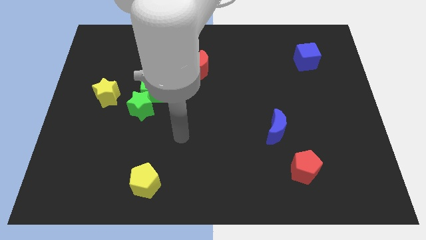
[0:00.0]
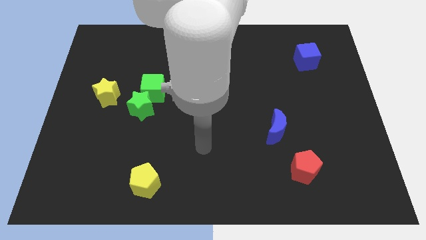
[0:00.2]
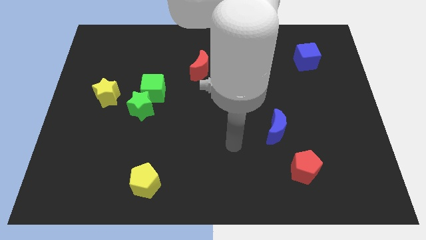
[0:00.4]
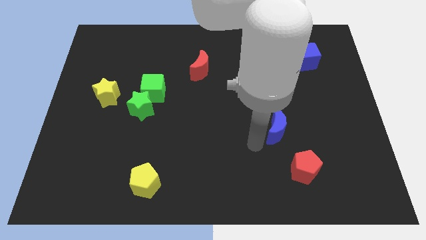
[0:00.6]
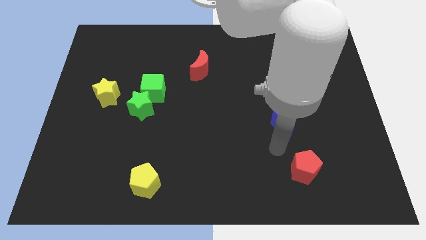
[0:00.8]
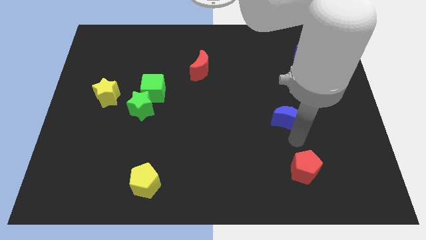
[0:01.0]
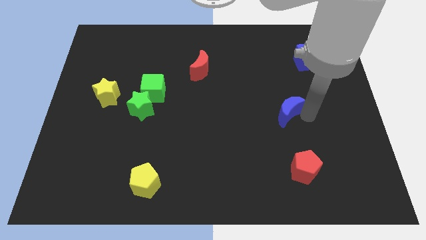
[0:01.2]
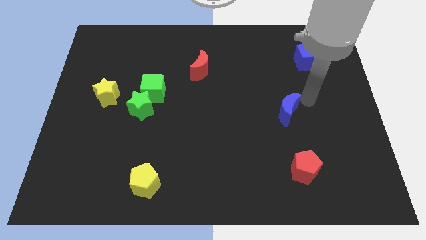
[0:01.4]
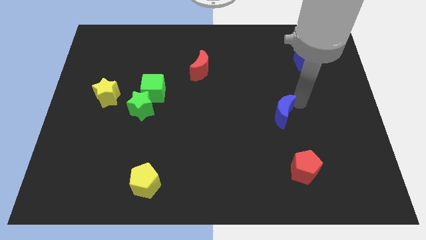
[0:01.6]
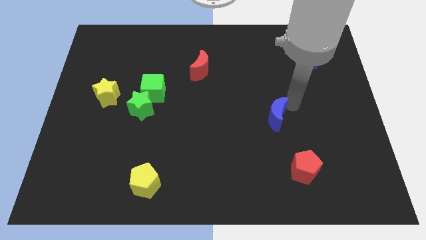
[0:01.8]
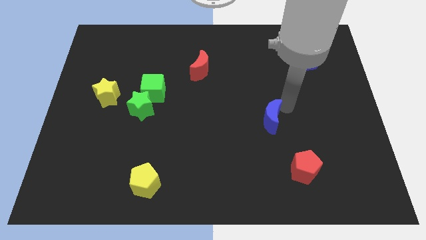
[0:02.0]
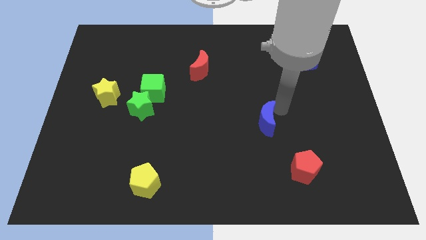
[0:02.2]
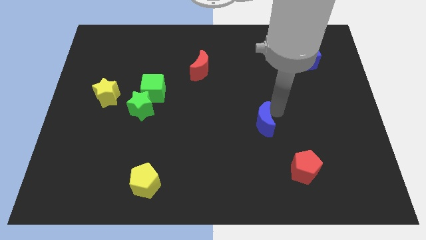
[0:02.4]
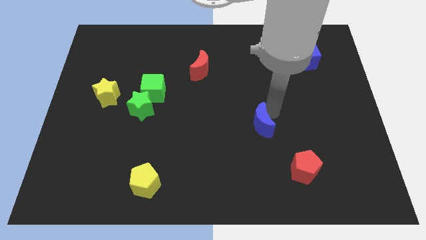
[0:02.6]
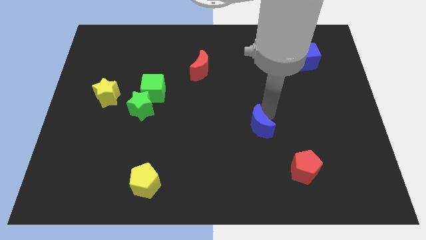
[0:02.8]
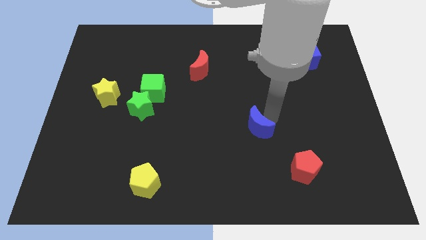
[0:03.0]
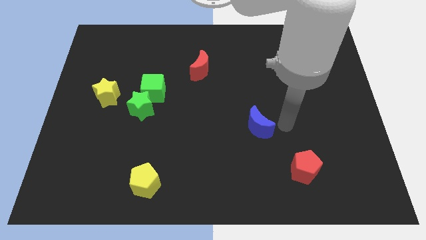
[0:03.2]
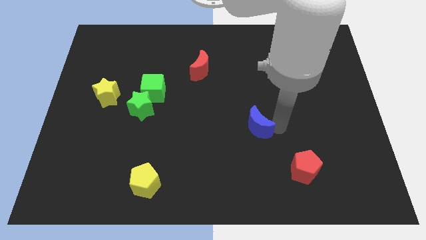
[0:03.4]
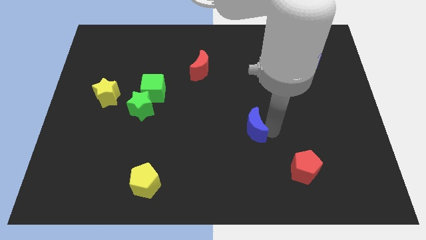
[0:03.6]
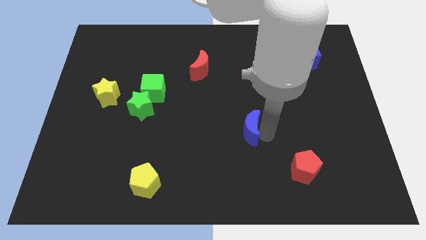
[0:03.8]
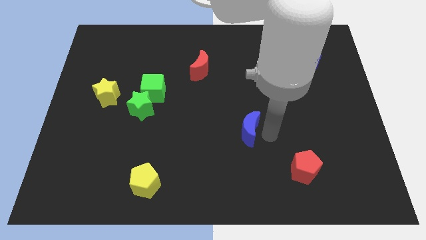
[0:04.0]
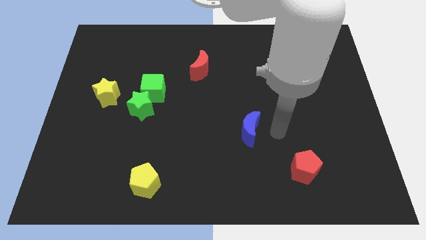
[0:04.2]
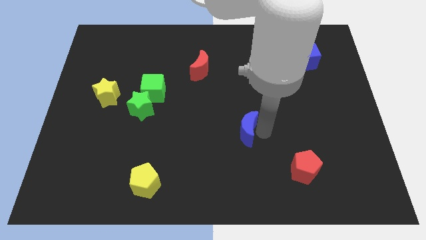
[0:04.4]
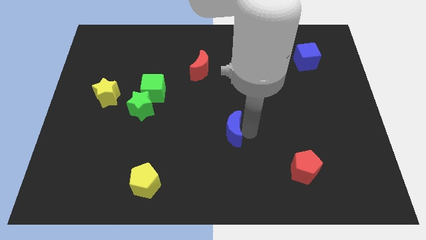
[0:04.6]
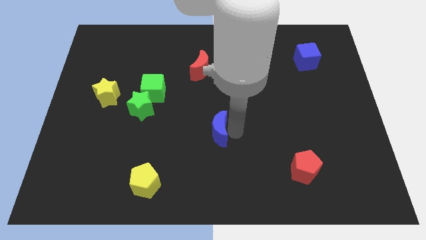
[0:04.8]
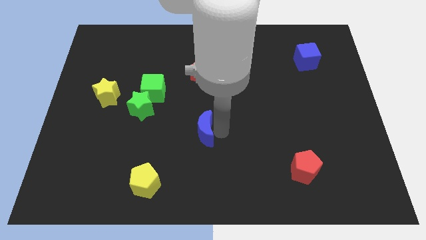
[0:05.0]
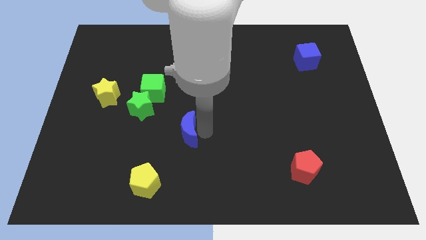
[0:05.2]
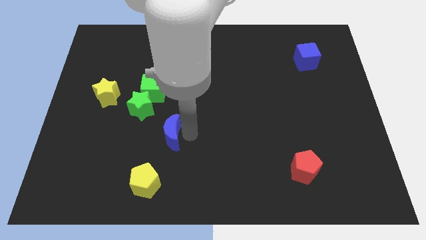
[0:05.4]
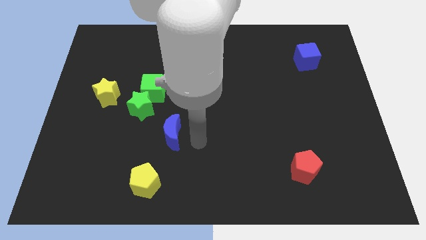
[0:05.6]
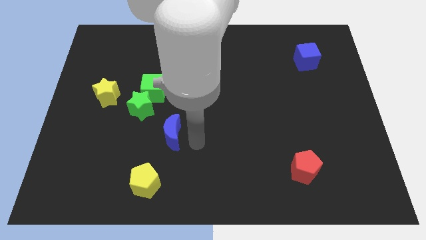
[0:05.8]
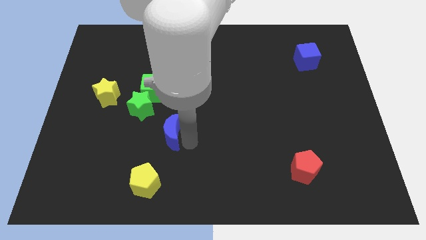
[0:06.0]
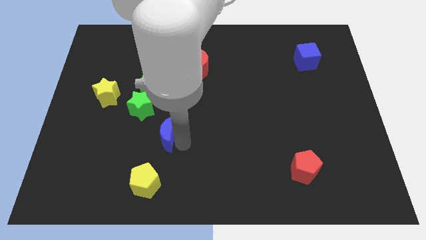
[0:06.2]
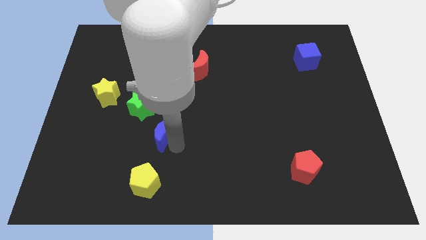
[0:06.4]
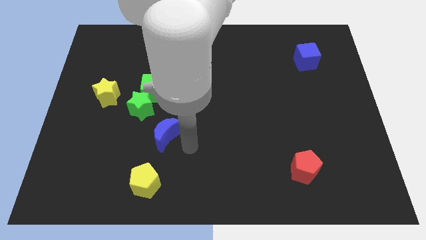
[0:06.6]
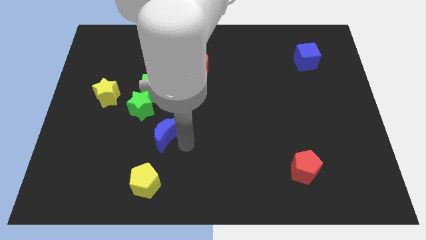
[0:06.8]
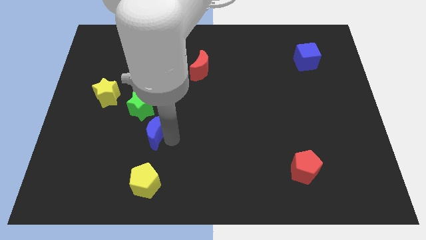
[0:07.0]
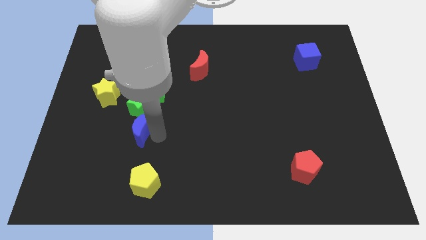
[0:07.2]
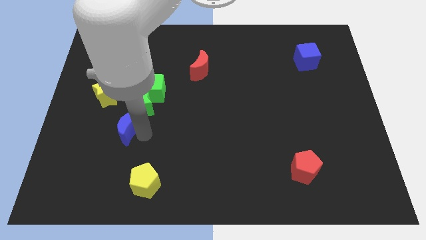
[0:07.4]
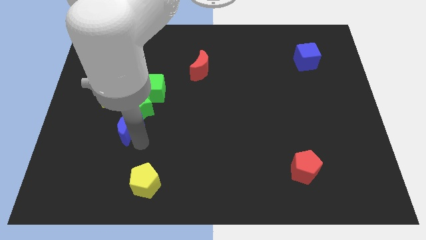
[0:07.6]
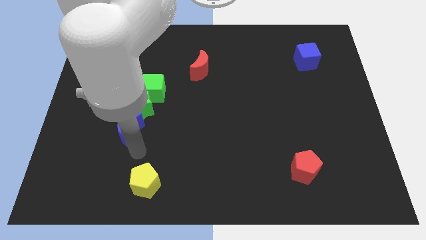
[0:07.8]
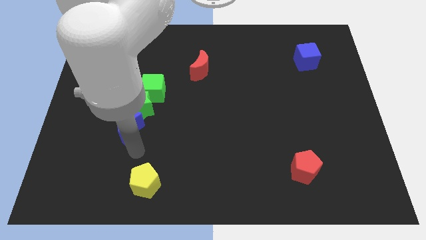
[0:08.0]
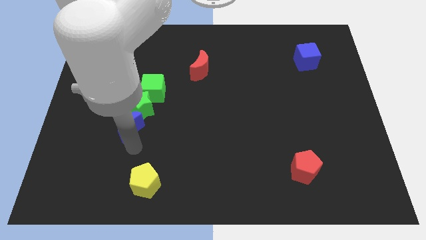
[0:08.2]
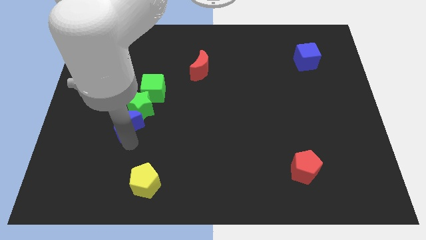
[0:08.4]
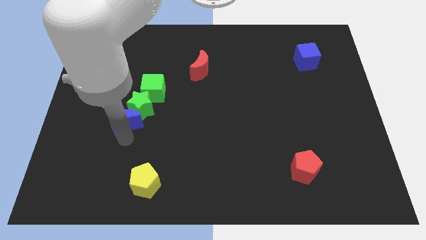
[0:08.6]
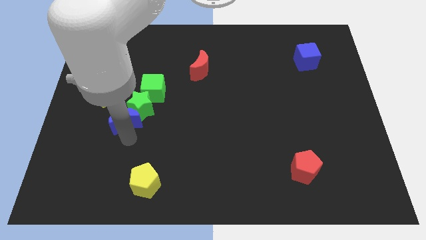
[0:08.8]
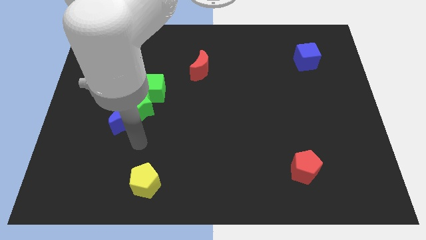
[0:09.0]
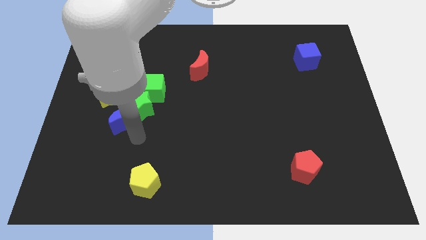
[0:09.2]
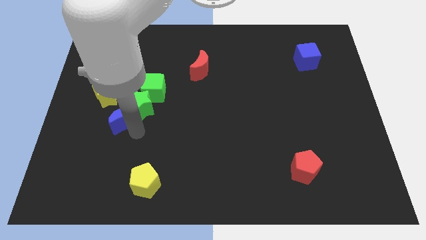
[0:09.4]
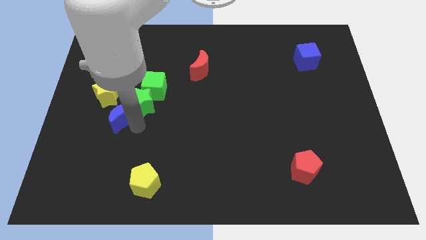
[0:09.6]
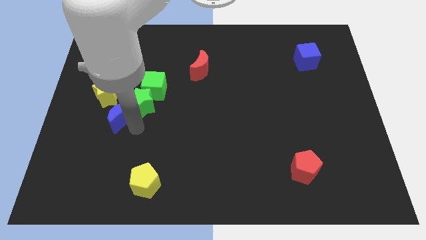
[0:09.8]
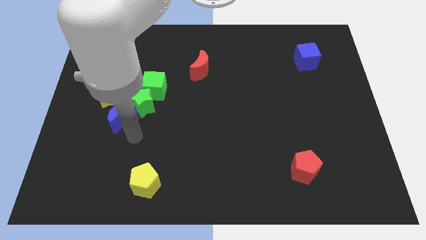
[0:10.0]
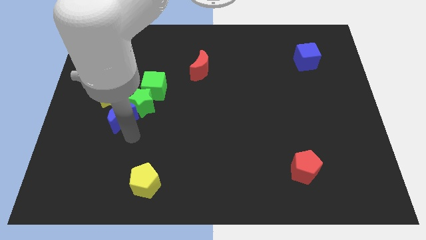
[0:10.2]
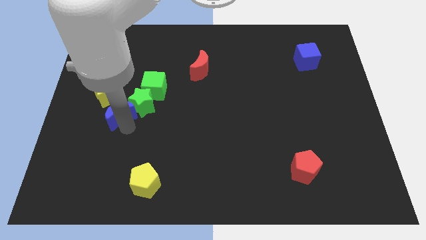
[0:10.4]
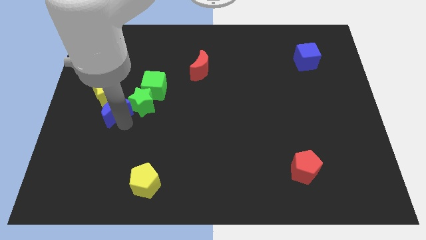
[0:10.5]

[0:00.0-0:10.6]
slide the blue moon next to the yellow star

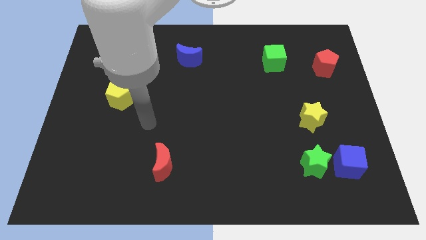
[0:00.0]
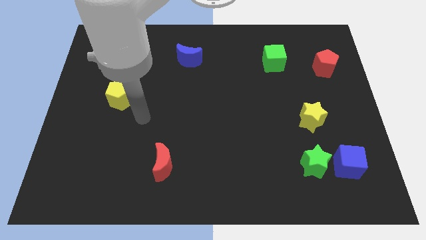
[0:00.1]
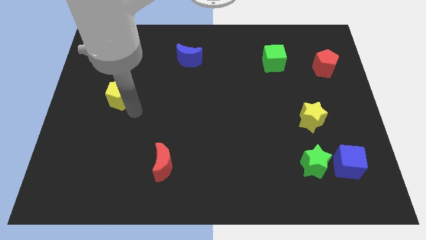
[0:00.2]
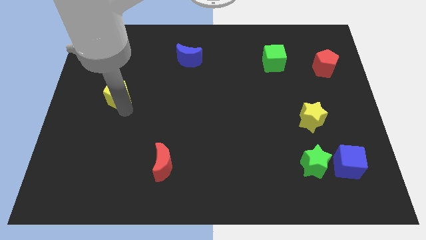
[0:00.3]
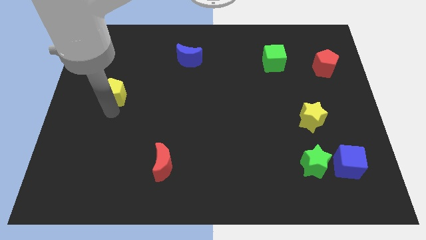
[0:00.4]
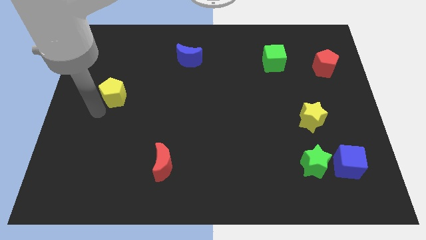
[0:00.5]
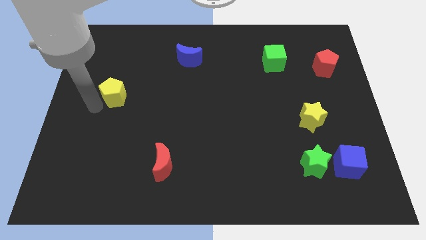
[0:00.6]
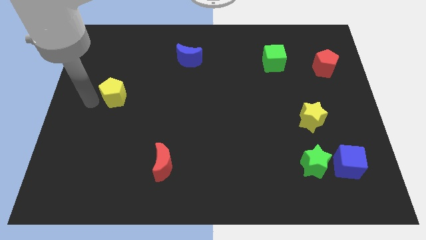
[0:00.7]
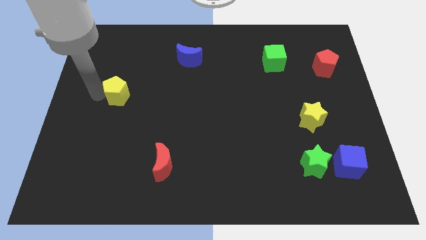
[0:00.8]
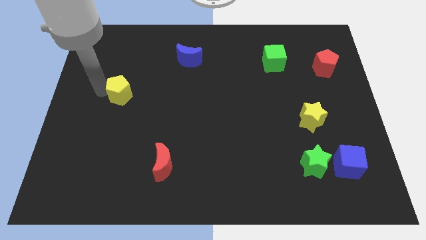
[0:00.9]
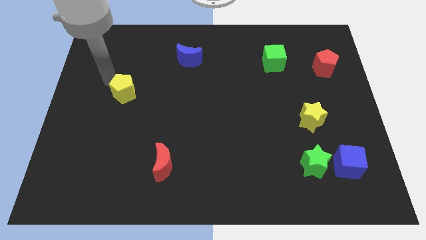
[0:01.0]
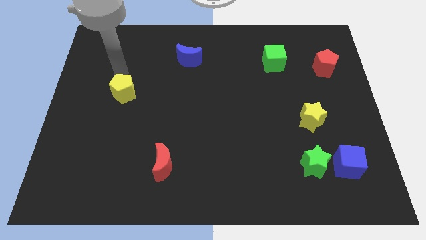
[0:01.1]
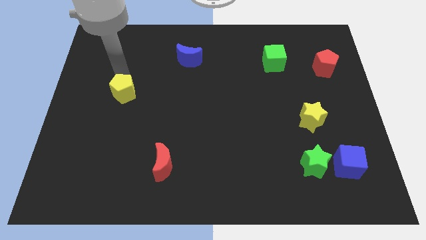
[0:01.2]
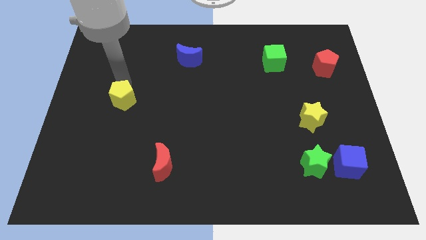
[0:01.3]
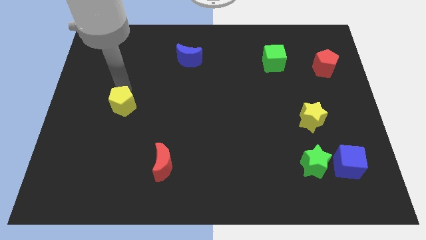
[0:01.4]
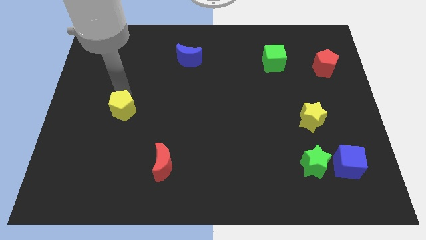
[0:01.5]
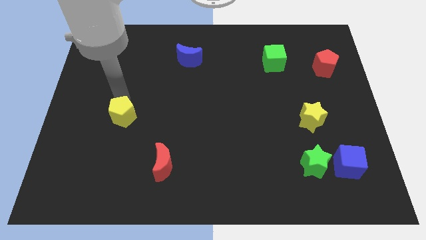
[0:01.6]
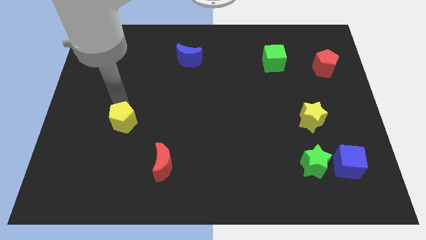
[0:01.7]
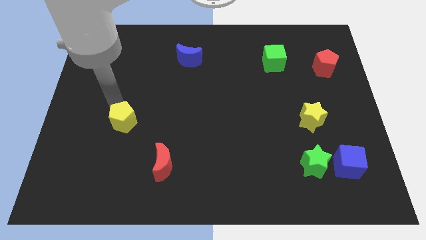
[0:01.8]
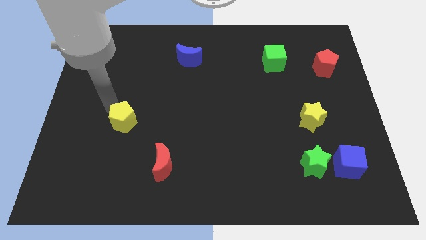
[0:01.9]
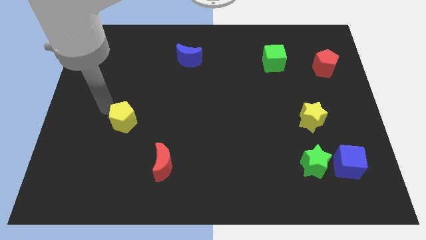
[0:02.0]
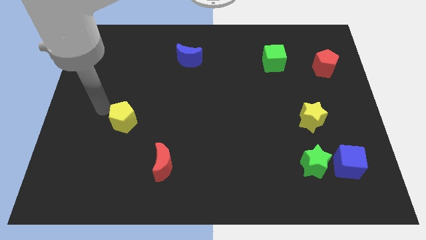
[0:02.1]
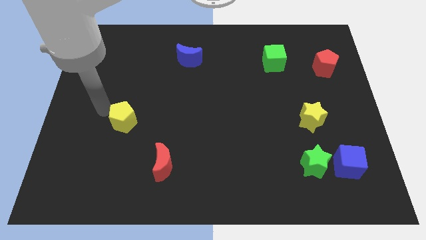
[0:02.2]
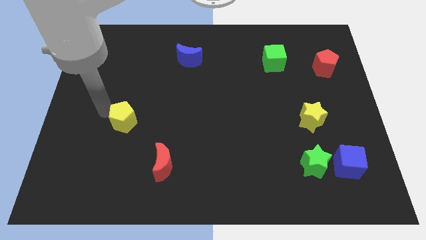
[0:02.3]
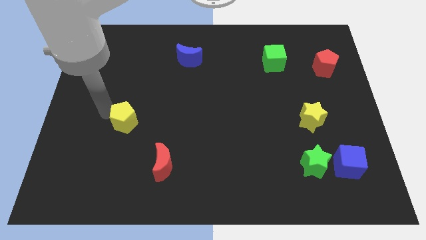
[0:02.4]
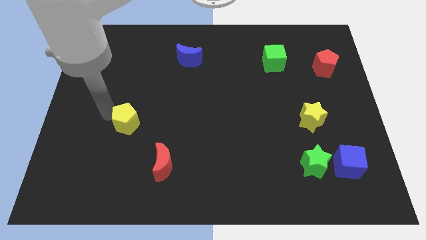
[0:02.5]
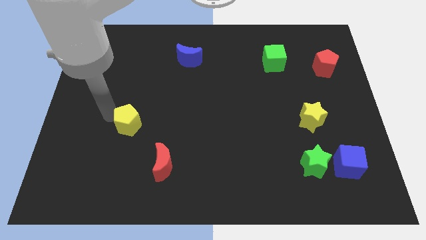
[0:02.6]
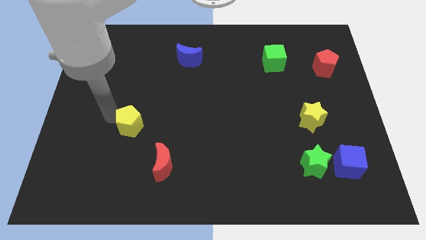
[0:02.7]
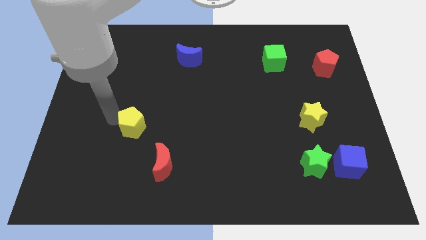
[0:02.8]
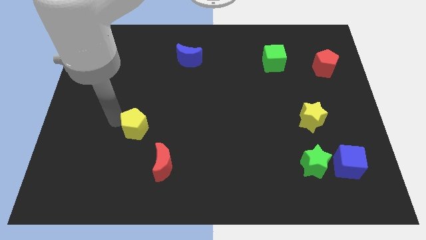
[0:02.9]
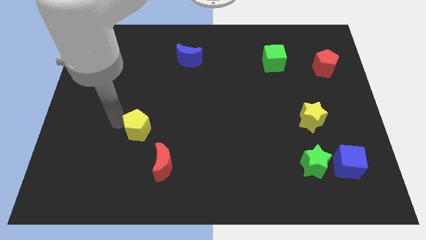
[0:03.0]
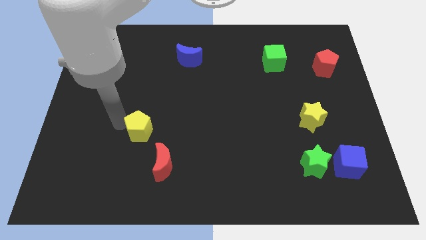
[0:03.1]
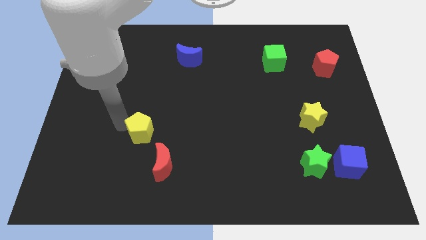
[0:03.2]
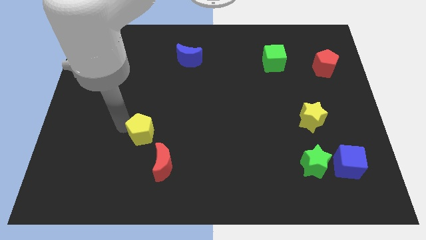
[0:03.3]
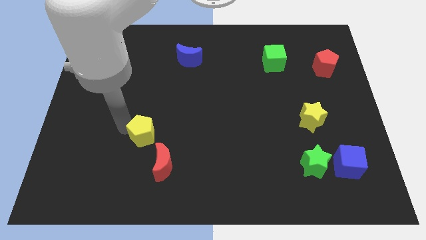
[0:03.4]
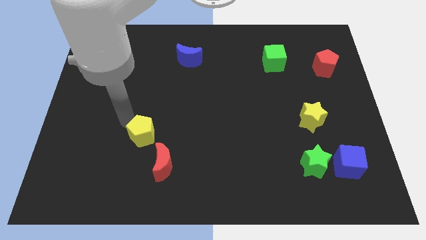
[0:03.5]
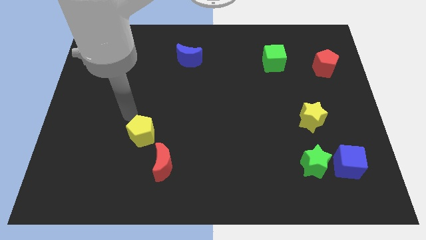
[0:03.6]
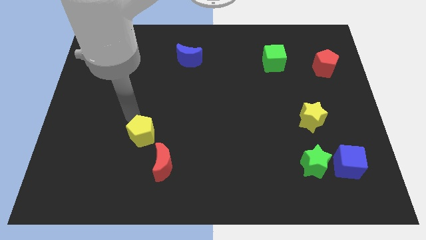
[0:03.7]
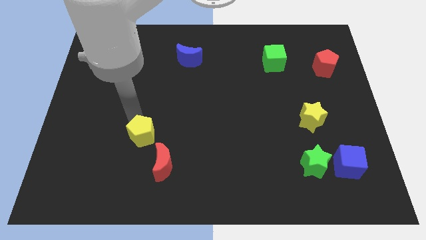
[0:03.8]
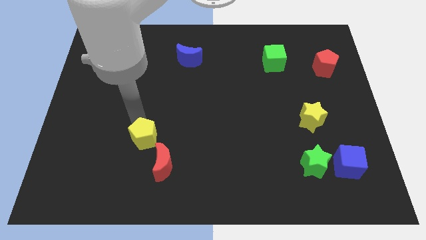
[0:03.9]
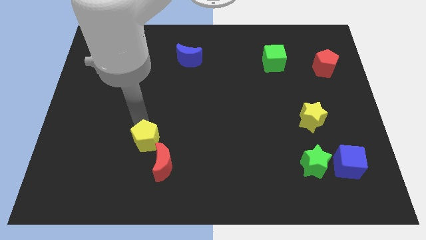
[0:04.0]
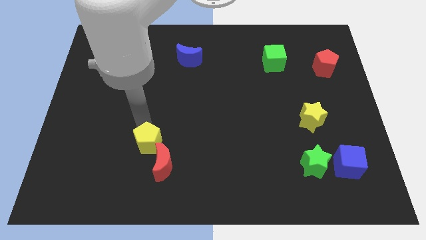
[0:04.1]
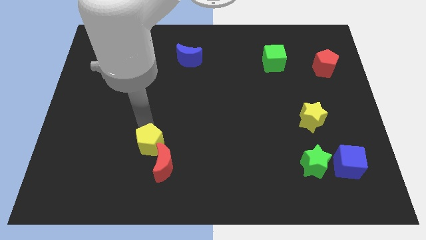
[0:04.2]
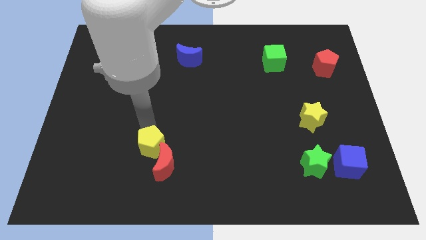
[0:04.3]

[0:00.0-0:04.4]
move the yellow pentagon towards the red moon
